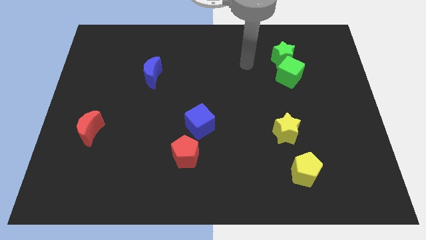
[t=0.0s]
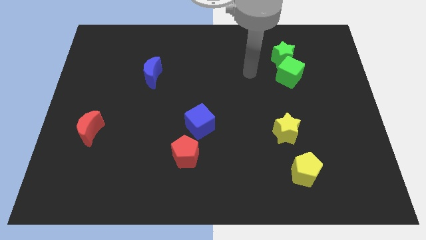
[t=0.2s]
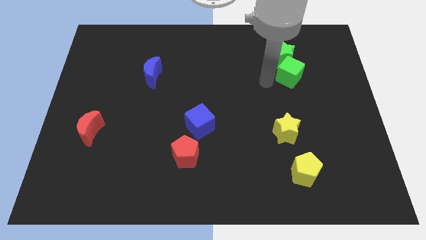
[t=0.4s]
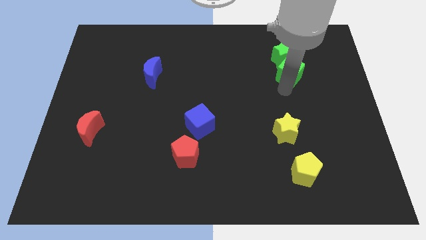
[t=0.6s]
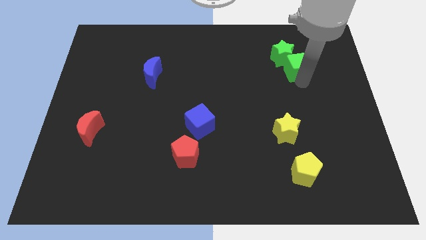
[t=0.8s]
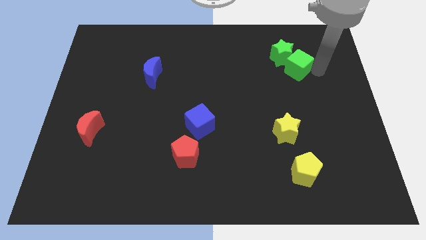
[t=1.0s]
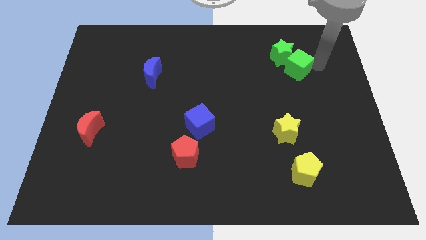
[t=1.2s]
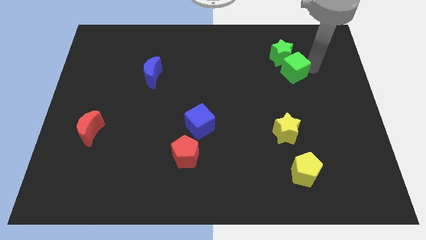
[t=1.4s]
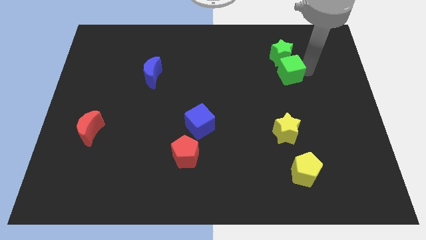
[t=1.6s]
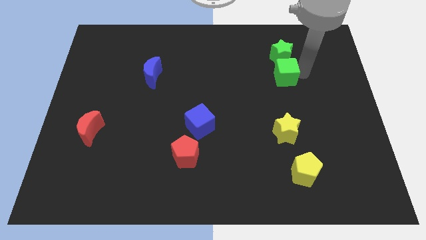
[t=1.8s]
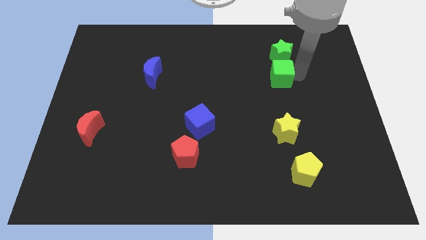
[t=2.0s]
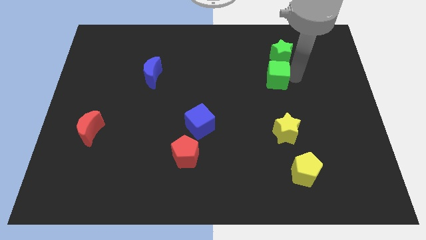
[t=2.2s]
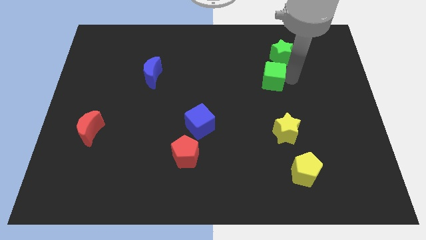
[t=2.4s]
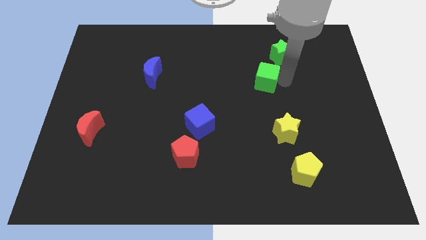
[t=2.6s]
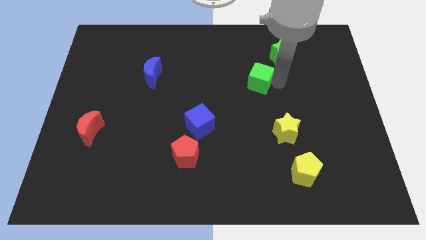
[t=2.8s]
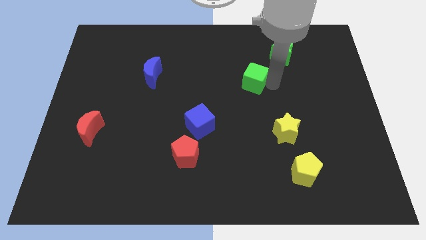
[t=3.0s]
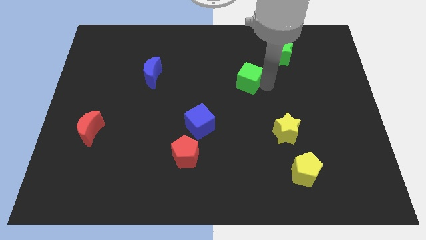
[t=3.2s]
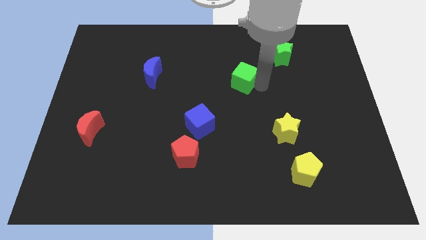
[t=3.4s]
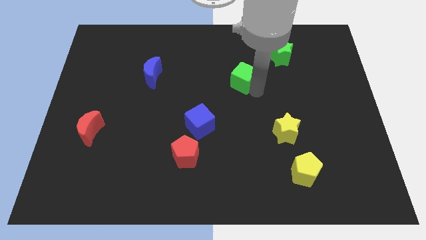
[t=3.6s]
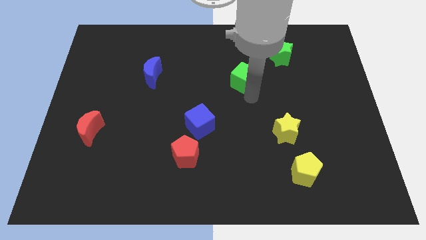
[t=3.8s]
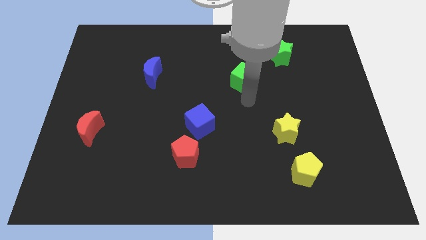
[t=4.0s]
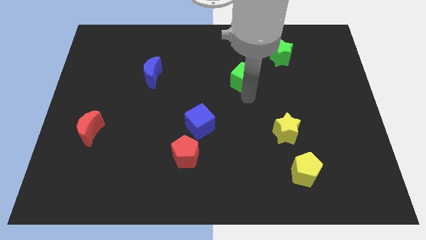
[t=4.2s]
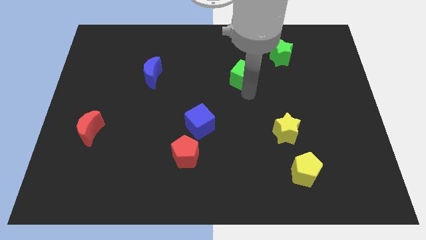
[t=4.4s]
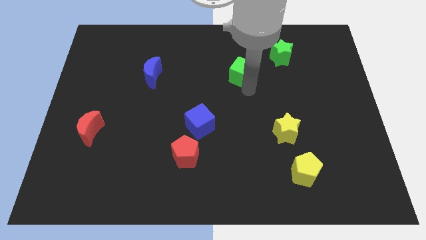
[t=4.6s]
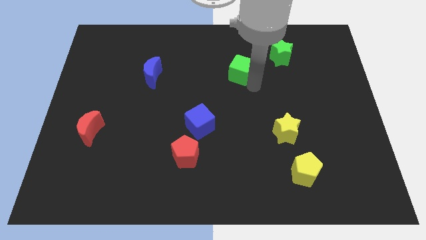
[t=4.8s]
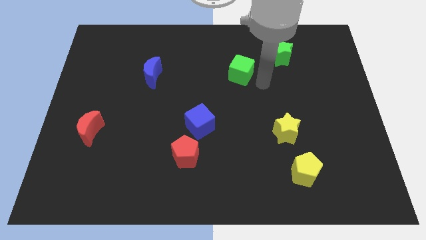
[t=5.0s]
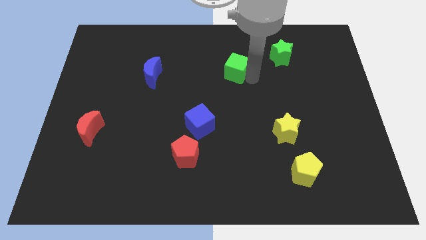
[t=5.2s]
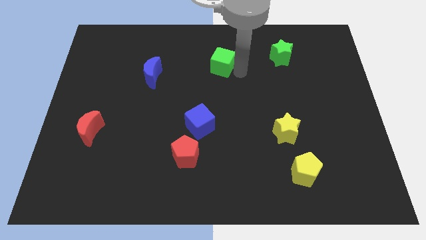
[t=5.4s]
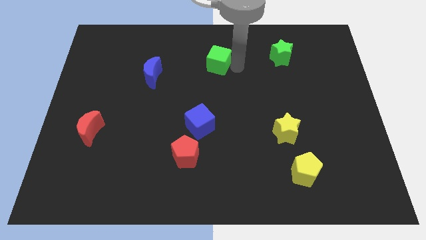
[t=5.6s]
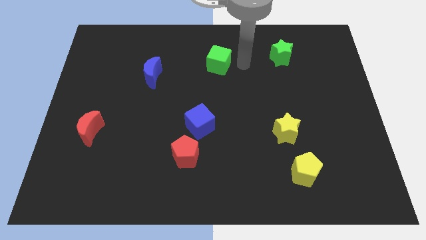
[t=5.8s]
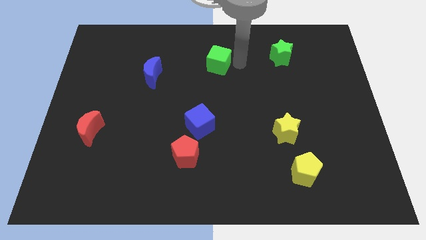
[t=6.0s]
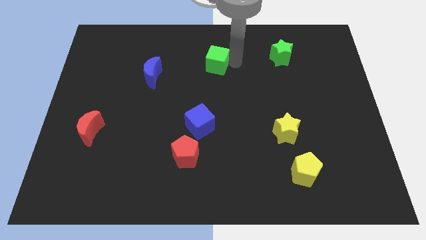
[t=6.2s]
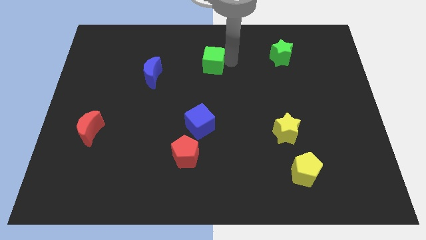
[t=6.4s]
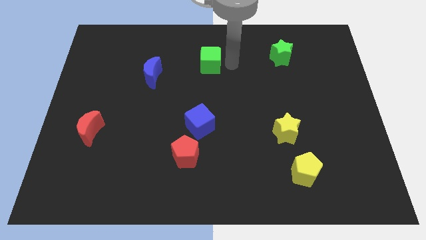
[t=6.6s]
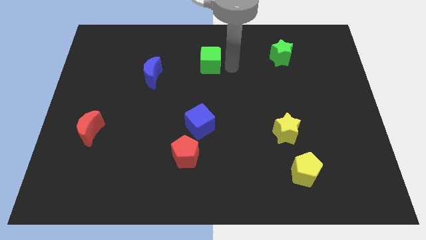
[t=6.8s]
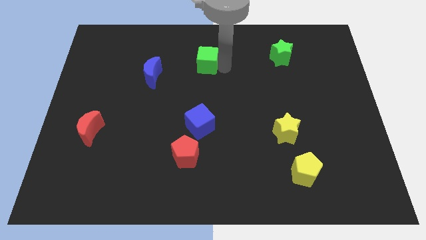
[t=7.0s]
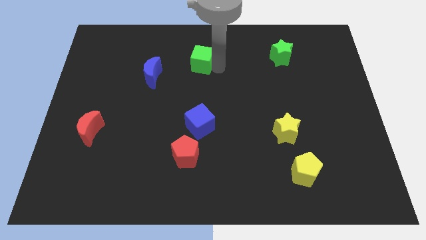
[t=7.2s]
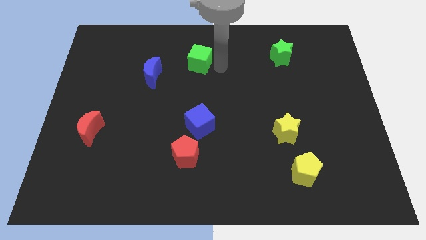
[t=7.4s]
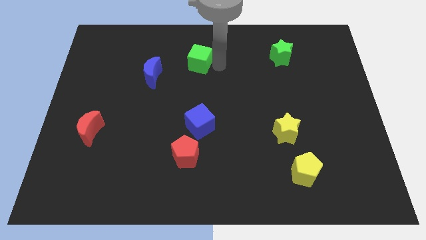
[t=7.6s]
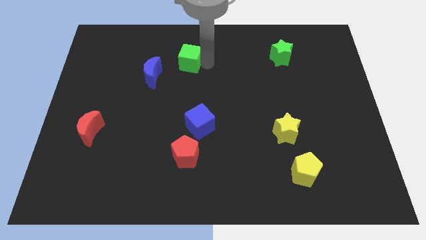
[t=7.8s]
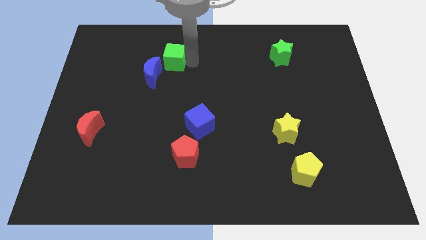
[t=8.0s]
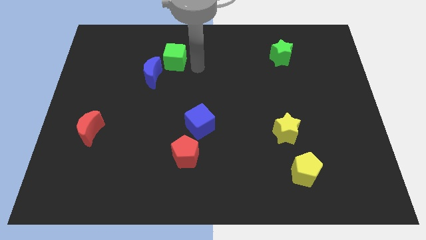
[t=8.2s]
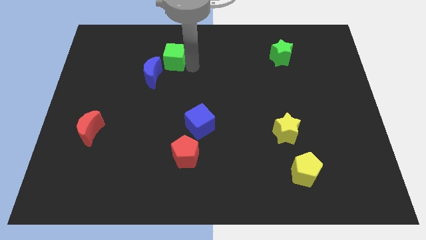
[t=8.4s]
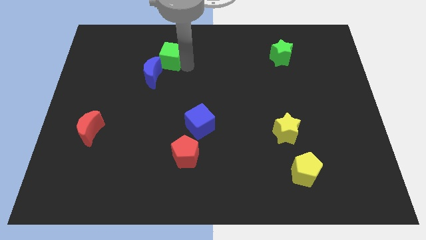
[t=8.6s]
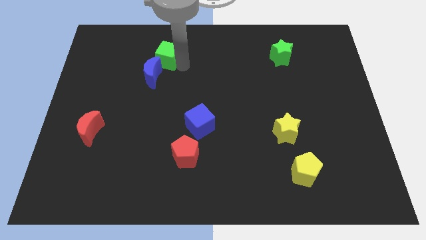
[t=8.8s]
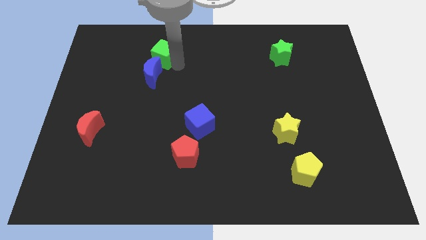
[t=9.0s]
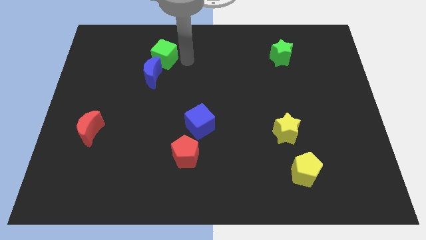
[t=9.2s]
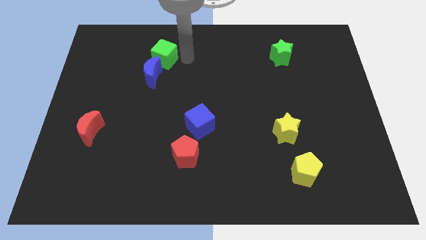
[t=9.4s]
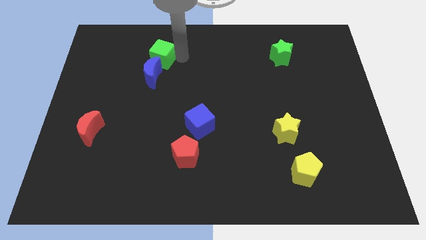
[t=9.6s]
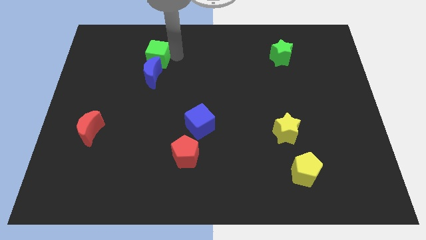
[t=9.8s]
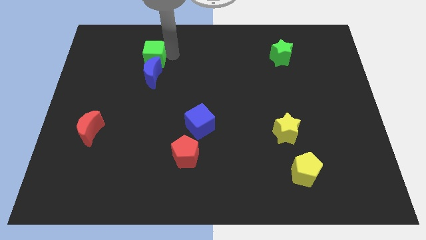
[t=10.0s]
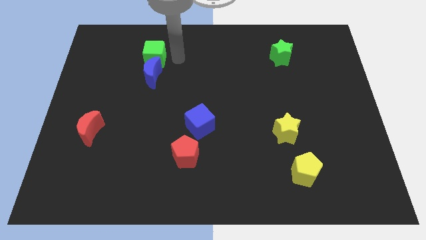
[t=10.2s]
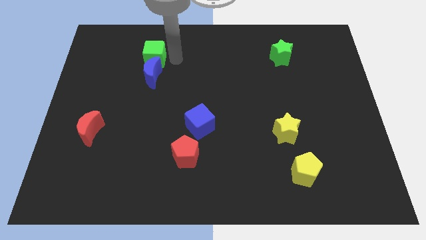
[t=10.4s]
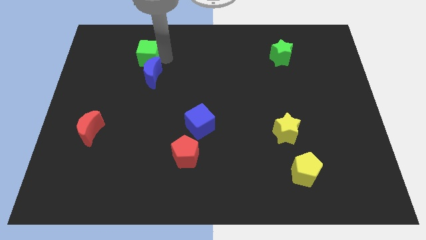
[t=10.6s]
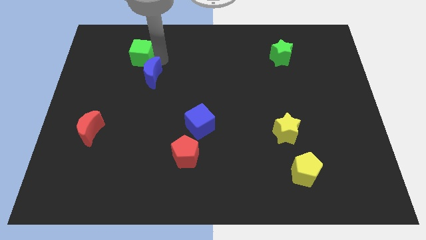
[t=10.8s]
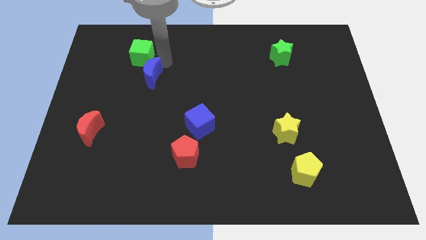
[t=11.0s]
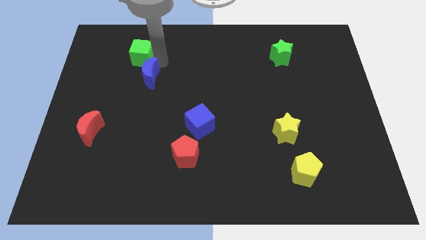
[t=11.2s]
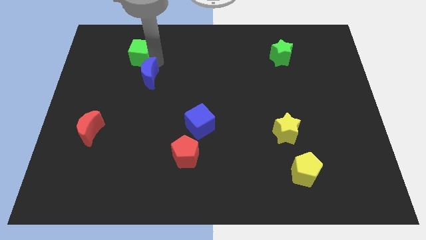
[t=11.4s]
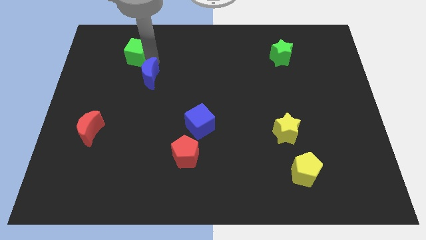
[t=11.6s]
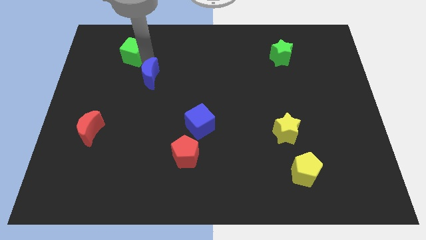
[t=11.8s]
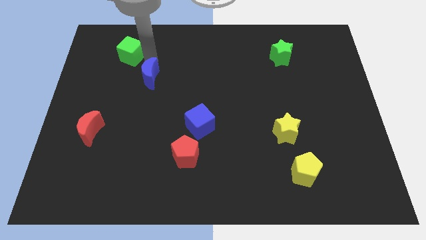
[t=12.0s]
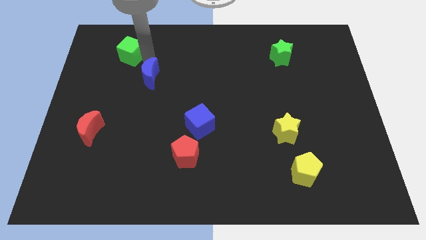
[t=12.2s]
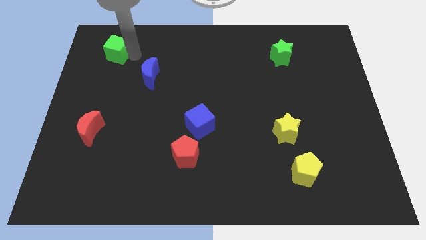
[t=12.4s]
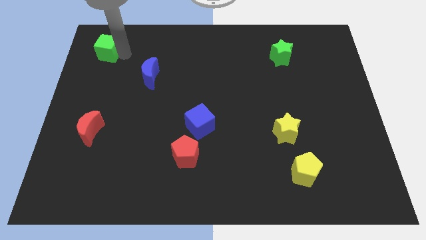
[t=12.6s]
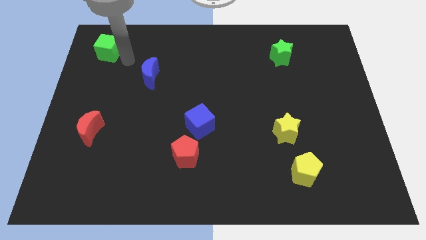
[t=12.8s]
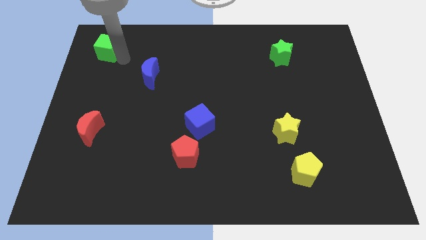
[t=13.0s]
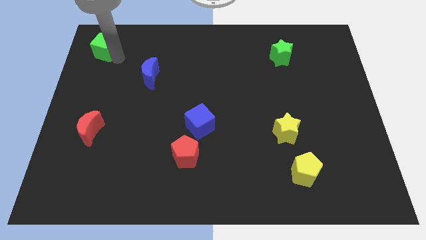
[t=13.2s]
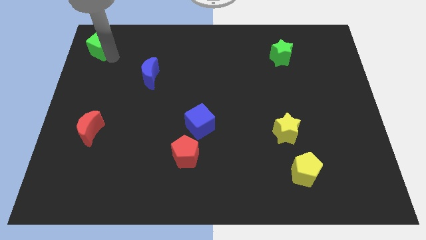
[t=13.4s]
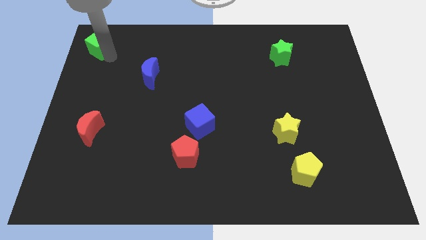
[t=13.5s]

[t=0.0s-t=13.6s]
push the green cube to the top left corner

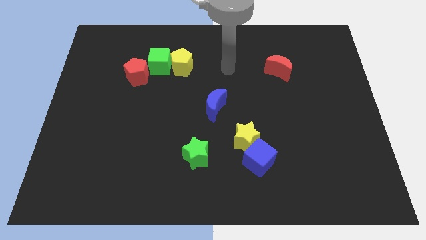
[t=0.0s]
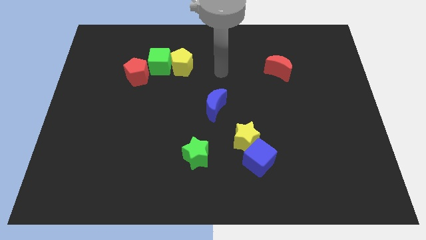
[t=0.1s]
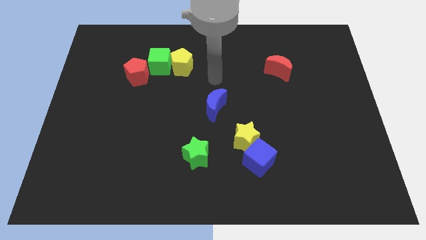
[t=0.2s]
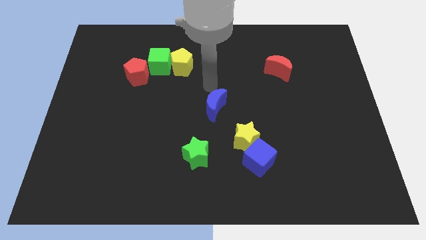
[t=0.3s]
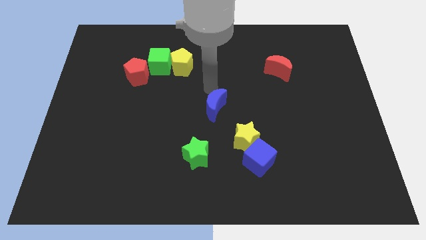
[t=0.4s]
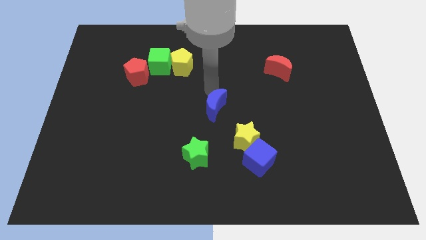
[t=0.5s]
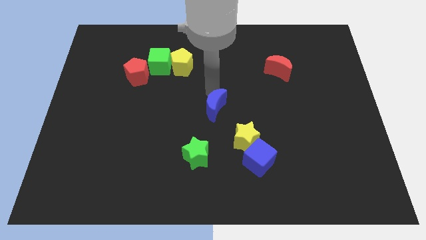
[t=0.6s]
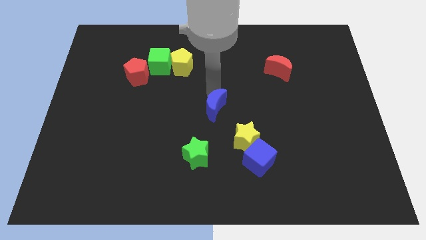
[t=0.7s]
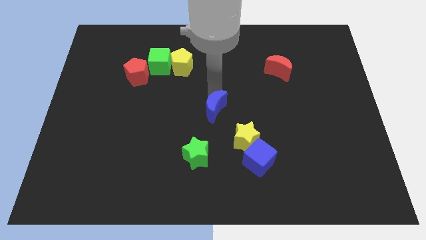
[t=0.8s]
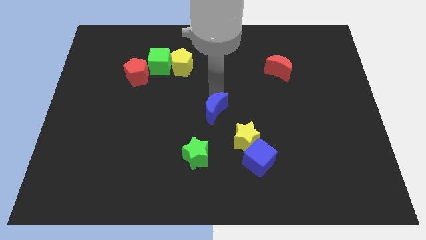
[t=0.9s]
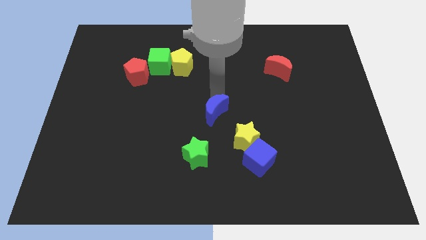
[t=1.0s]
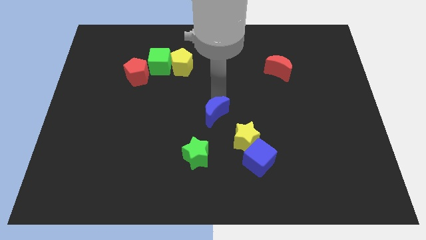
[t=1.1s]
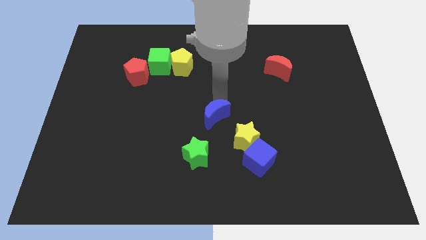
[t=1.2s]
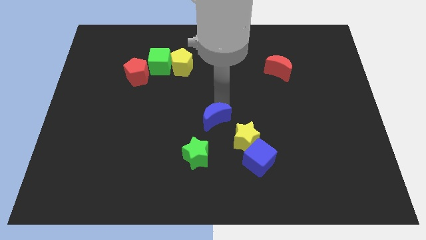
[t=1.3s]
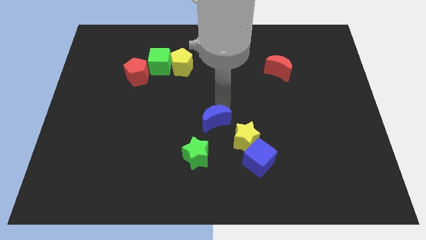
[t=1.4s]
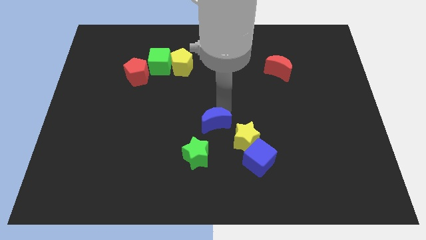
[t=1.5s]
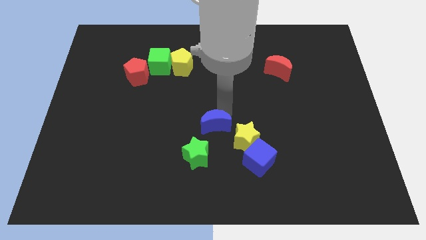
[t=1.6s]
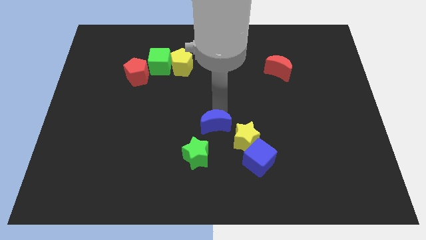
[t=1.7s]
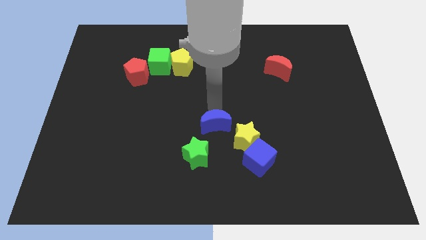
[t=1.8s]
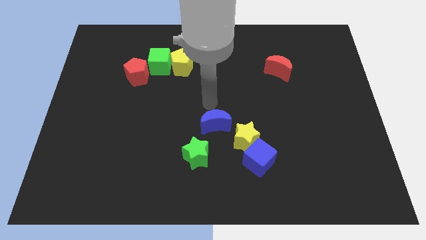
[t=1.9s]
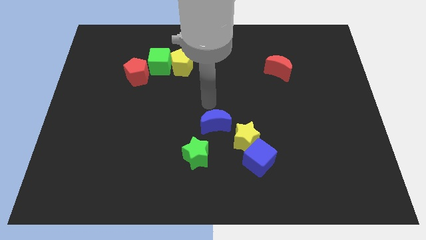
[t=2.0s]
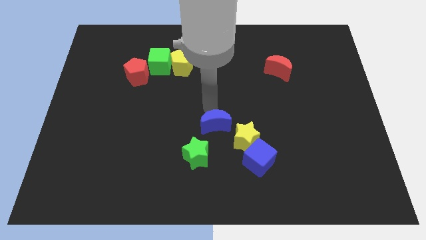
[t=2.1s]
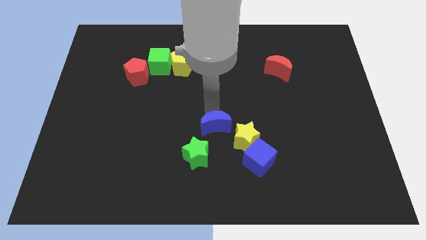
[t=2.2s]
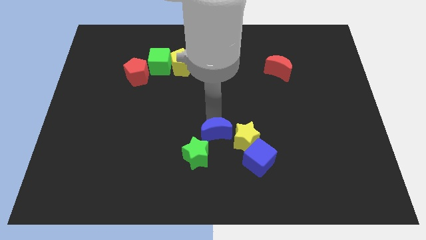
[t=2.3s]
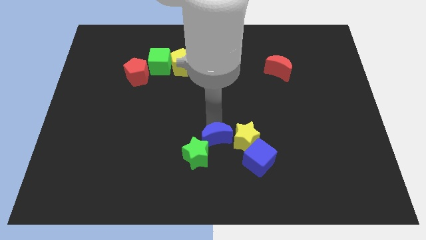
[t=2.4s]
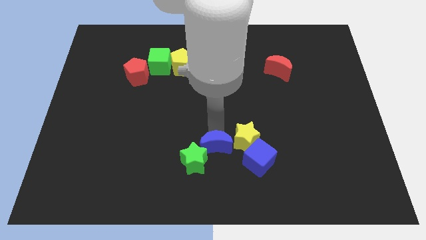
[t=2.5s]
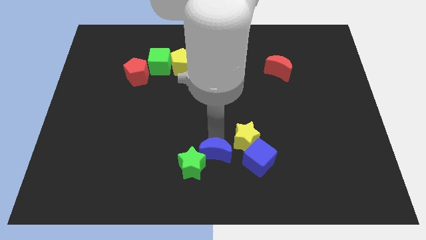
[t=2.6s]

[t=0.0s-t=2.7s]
slide the blue moon to the bottom
